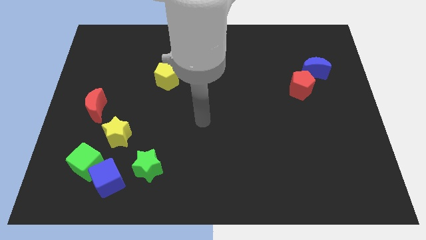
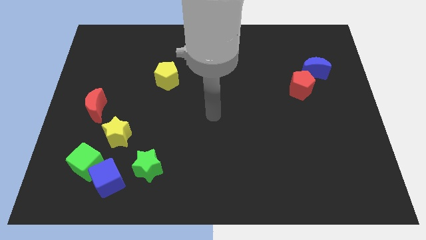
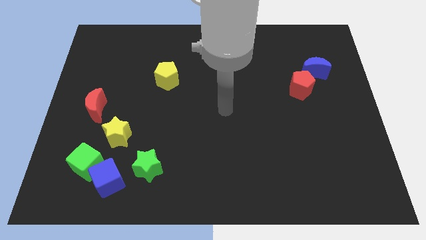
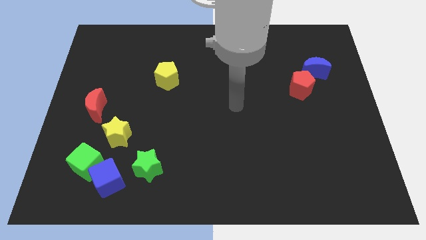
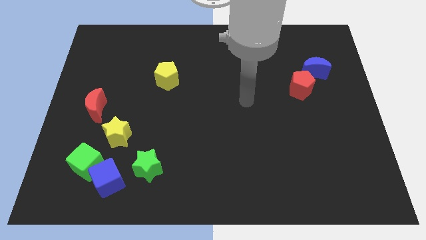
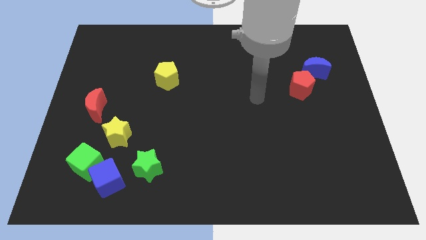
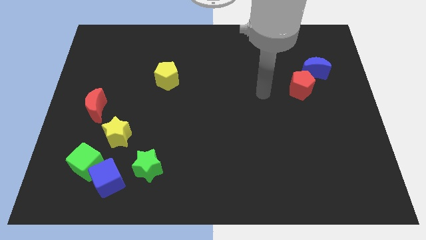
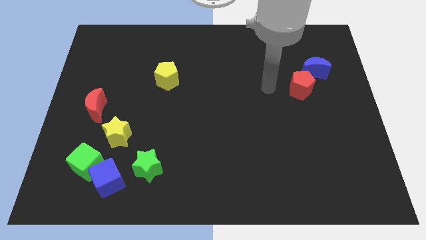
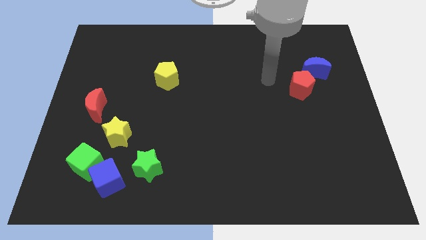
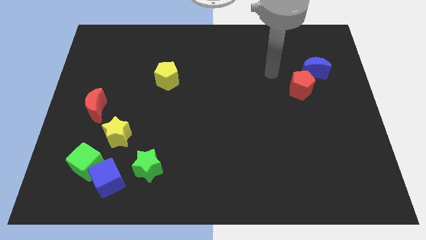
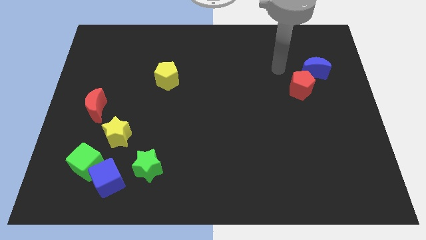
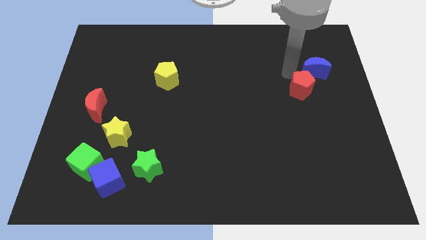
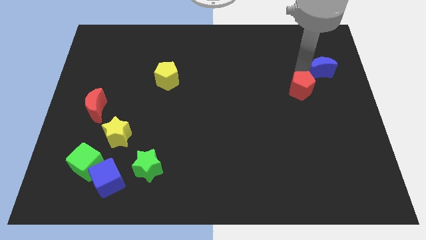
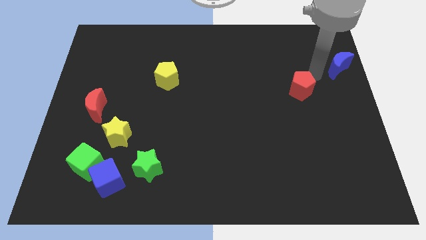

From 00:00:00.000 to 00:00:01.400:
move the red pentagon away from the blue moon

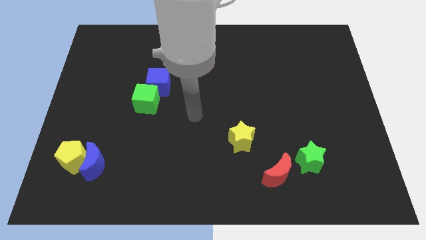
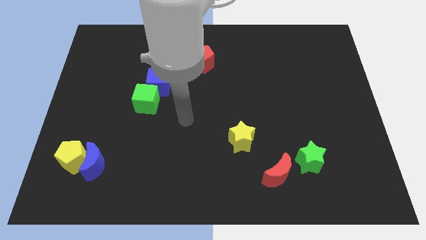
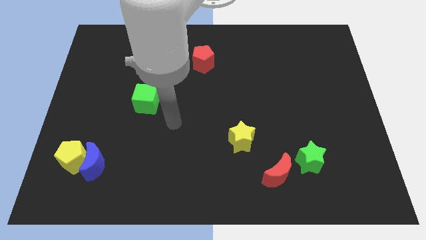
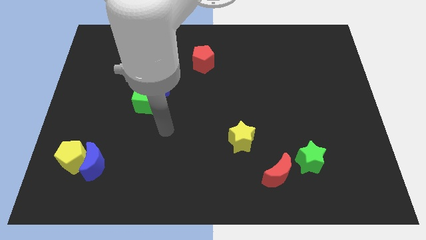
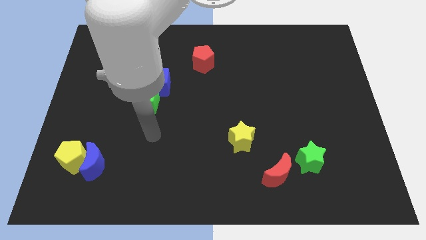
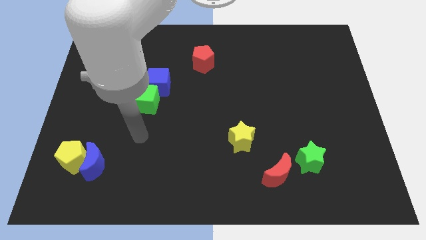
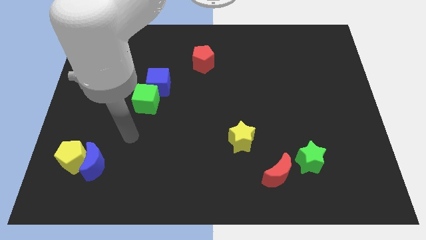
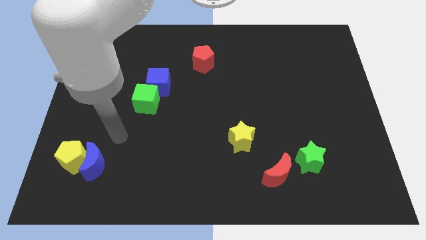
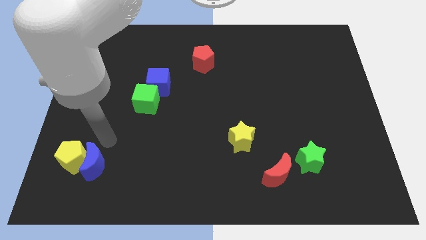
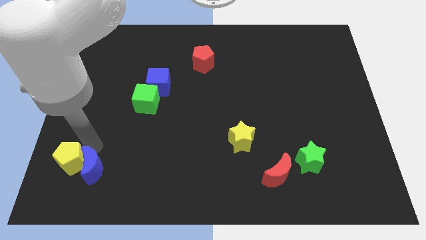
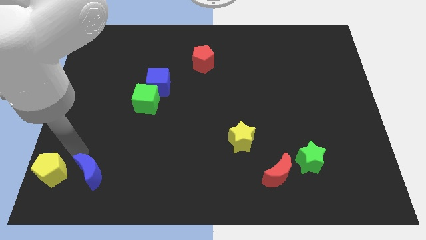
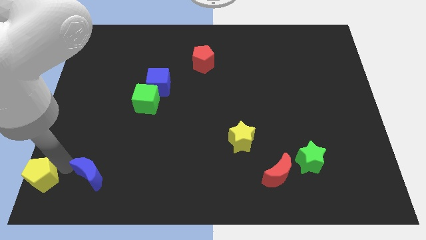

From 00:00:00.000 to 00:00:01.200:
separate the blue moon from the yellow pentagon

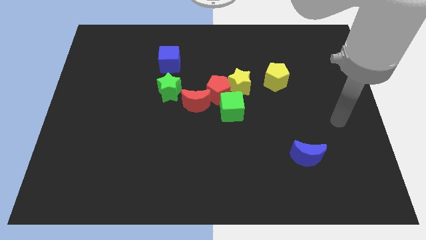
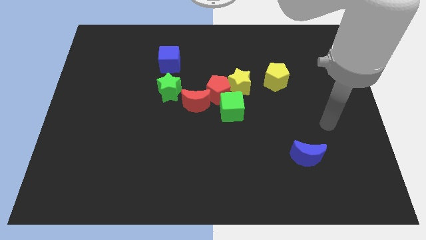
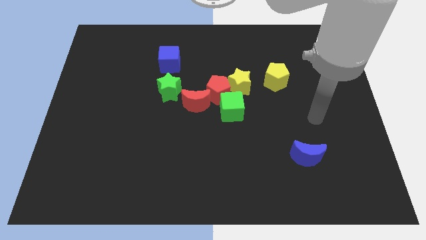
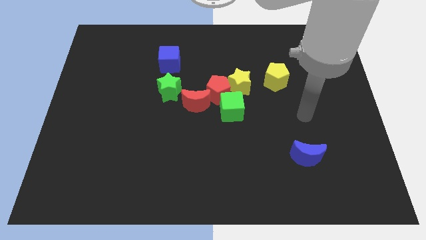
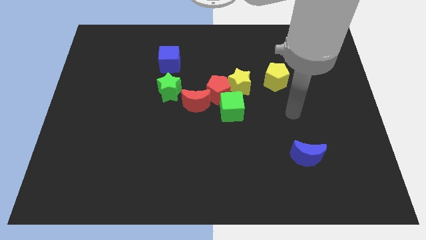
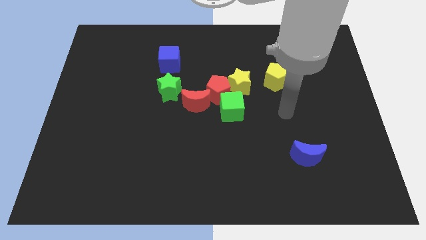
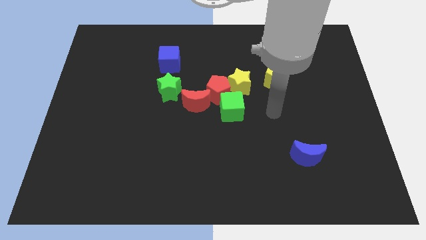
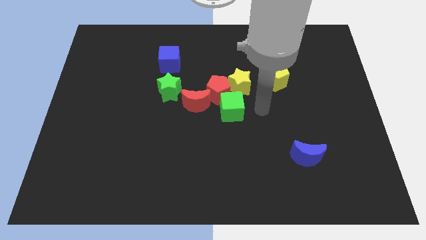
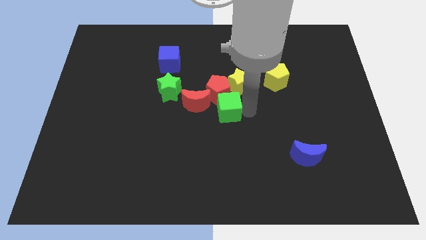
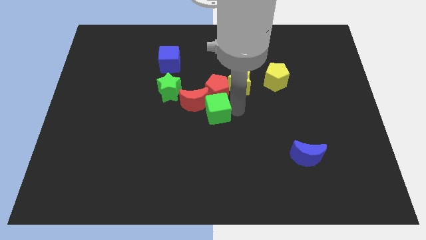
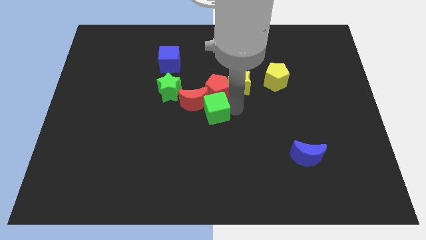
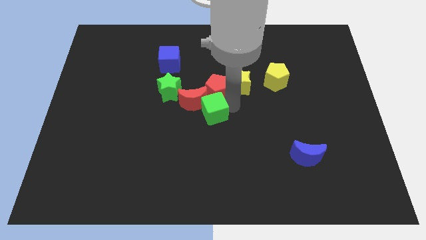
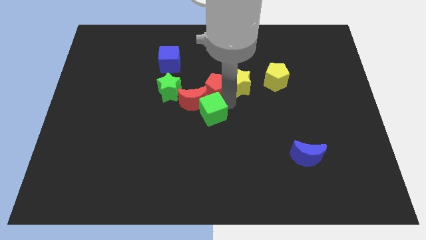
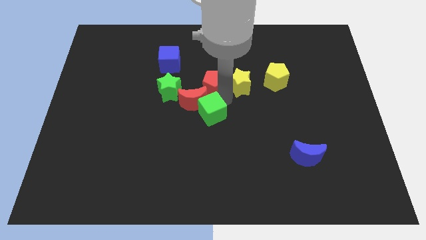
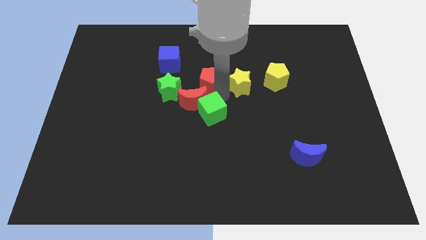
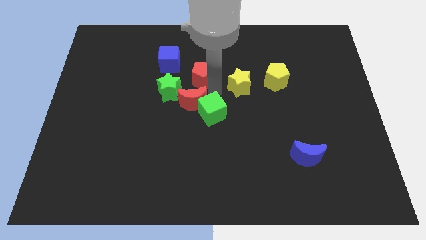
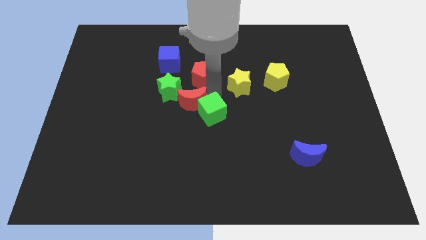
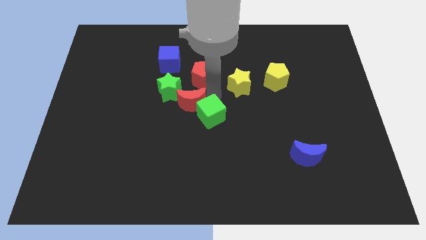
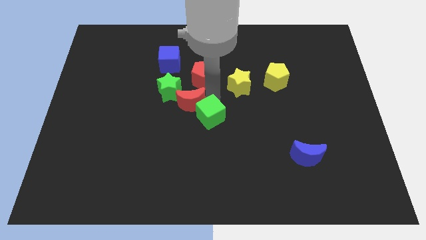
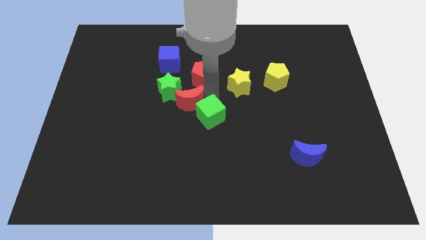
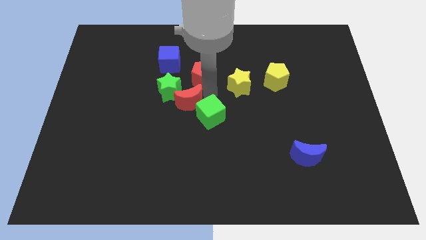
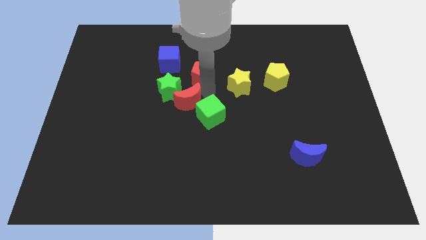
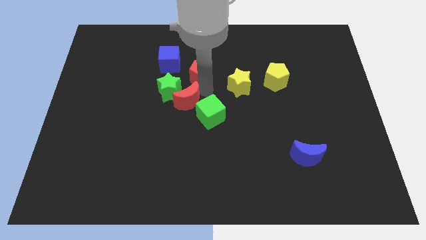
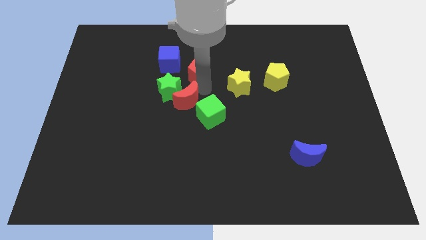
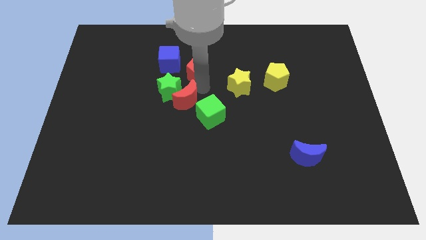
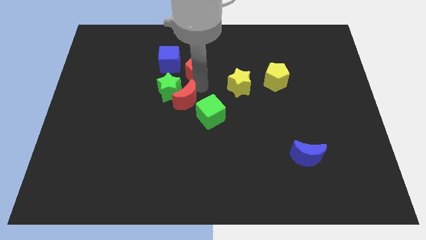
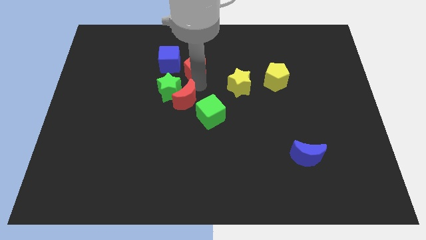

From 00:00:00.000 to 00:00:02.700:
separate the red pentagon from the clump

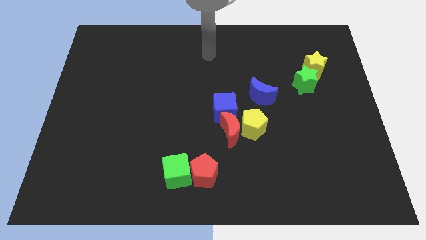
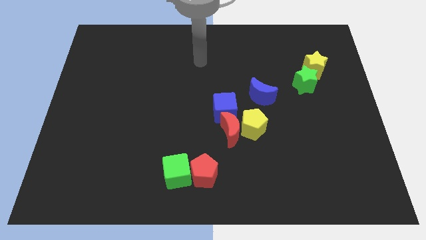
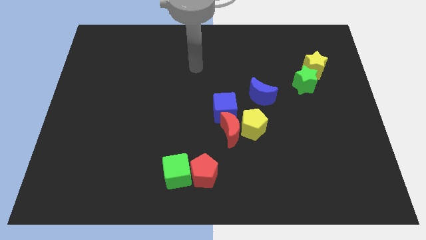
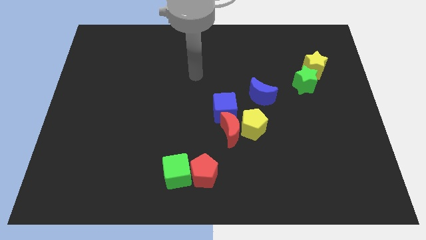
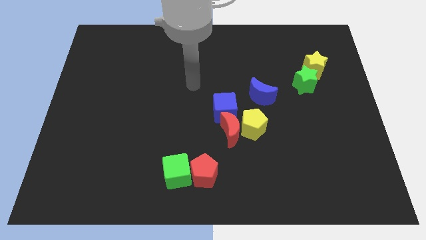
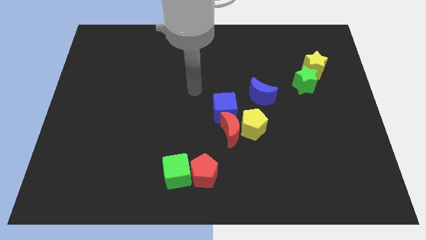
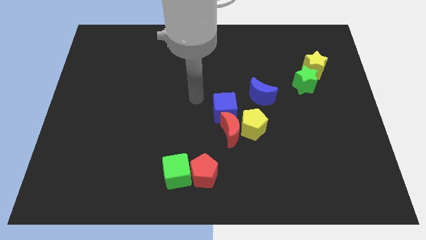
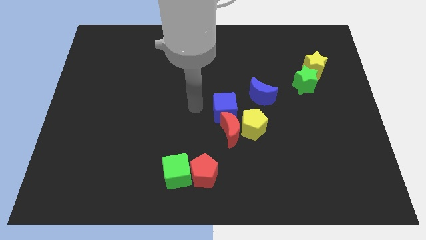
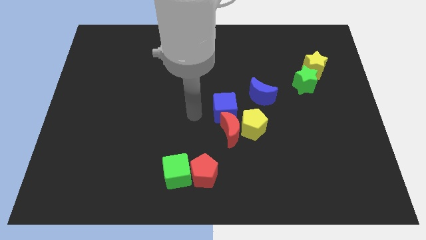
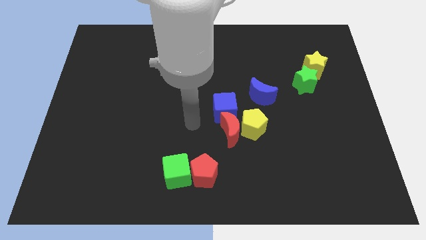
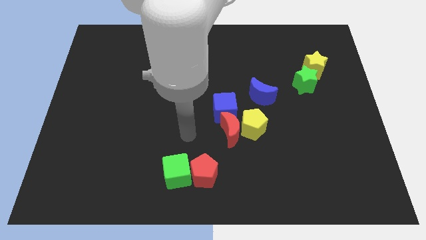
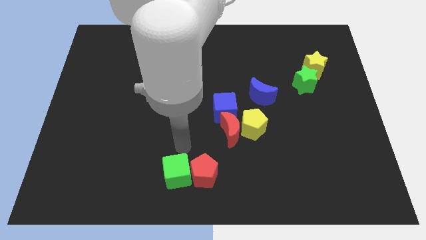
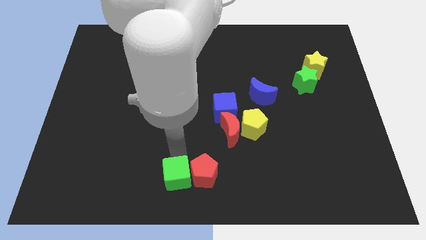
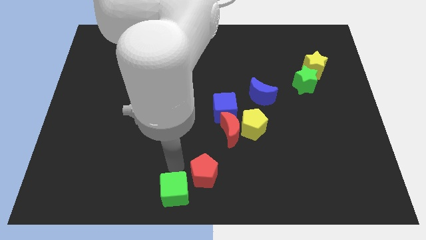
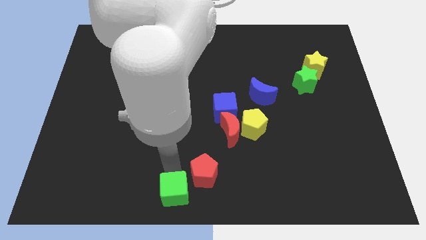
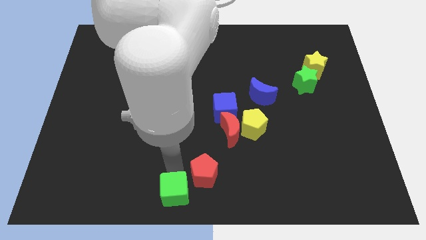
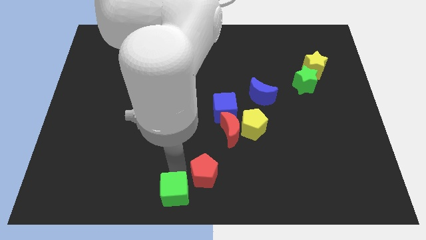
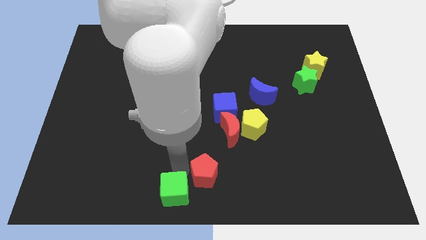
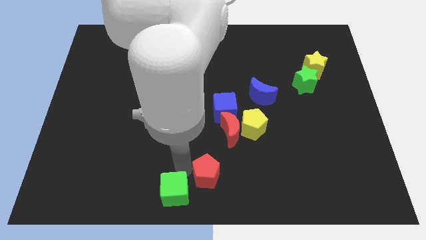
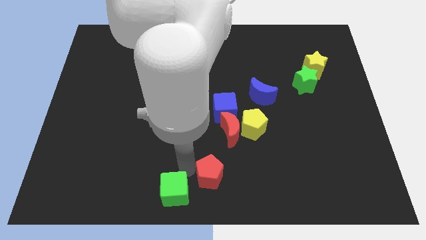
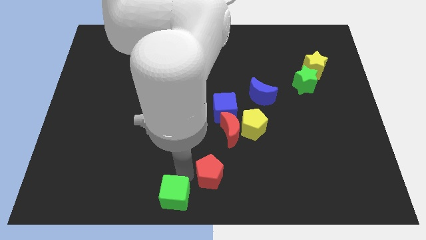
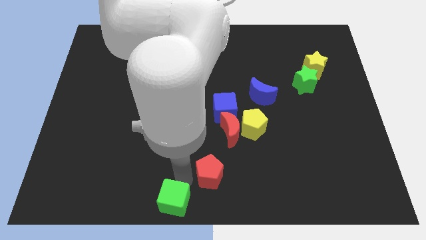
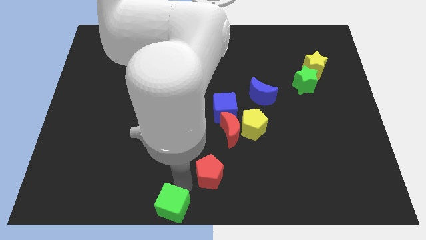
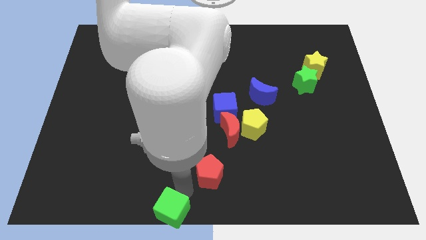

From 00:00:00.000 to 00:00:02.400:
move the red pentagon away from the green cube

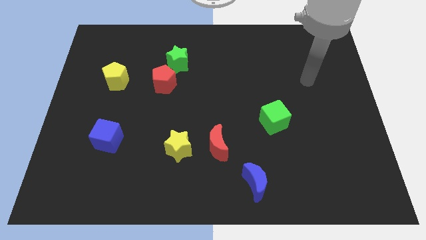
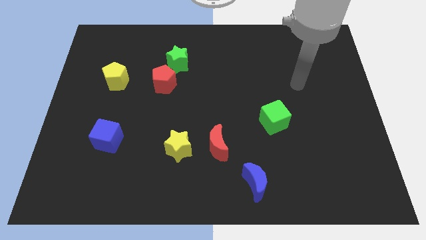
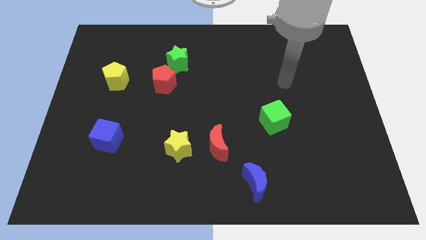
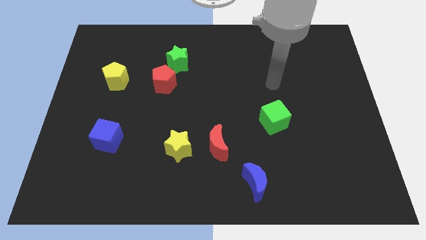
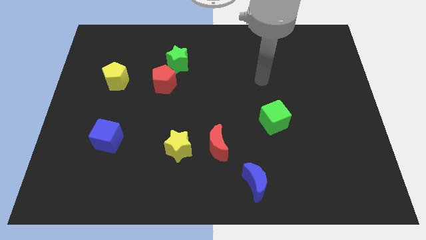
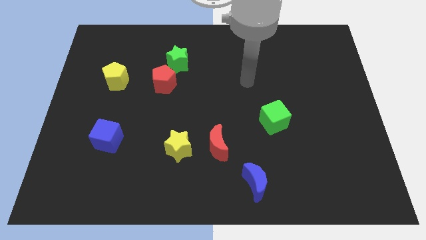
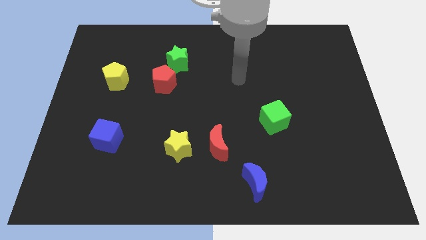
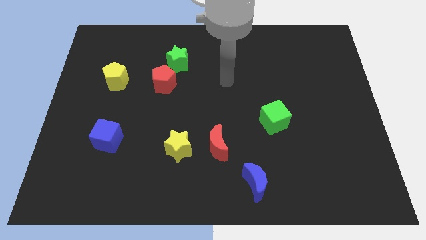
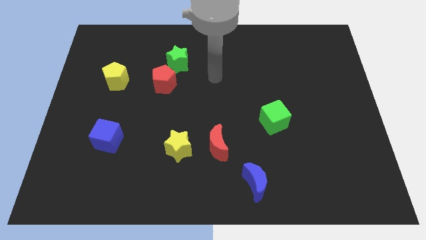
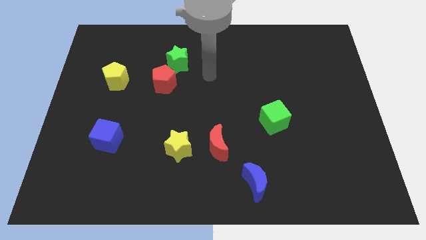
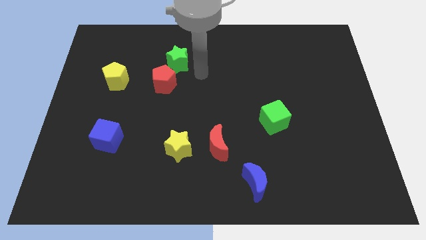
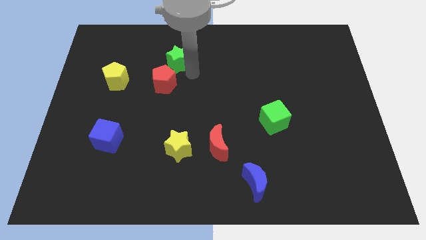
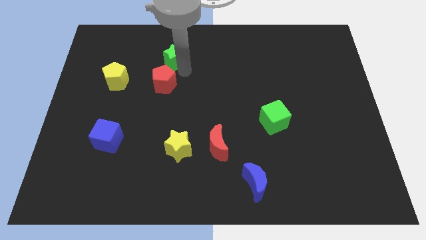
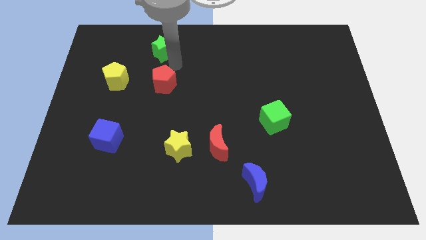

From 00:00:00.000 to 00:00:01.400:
pull the red pentagon apart from the green star
